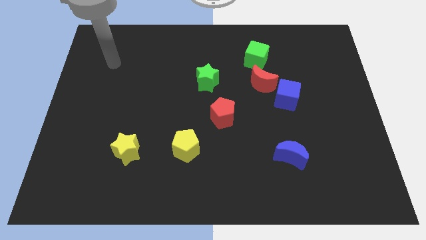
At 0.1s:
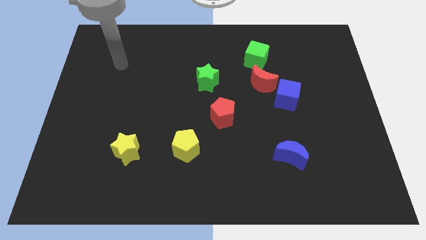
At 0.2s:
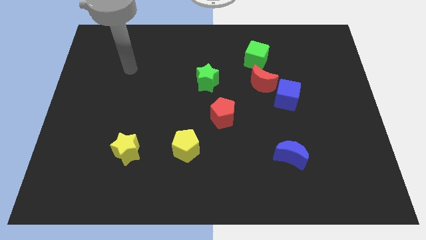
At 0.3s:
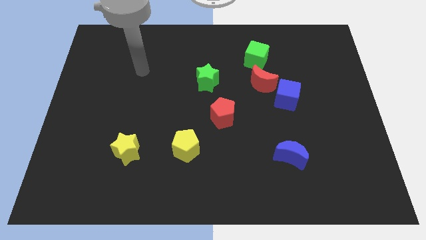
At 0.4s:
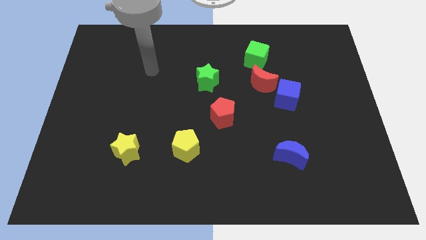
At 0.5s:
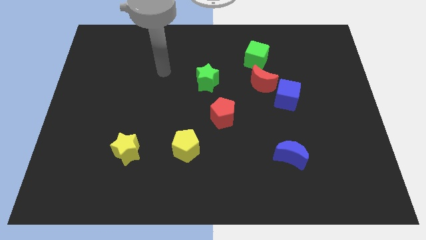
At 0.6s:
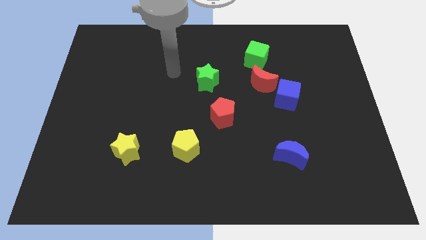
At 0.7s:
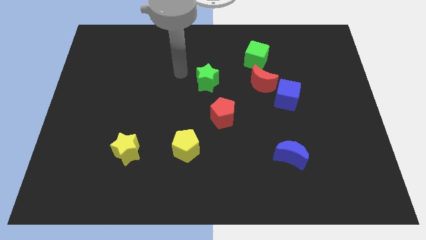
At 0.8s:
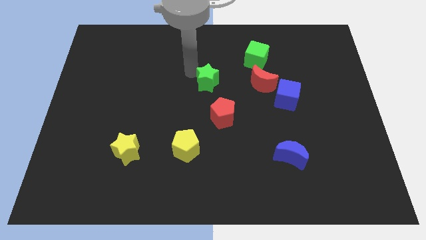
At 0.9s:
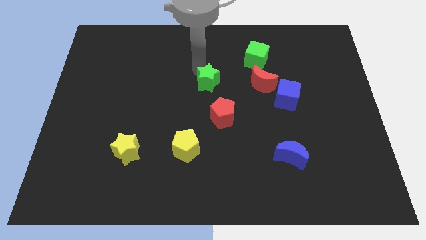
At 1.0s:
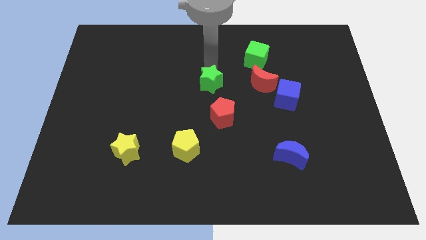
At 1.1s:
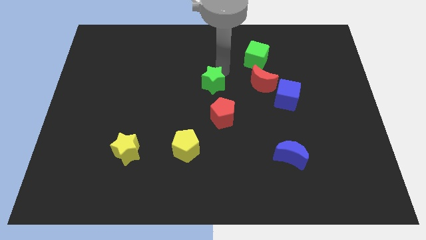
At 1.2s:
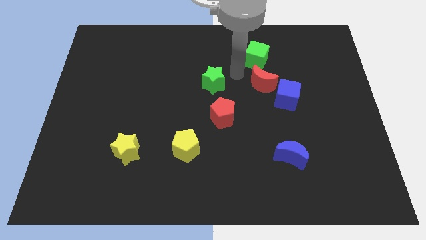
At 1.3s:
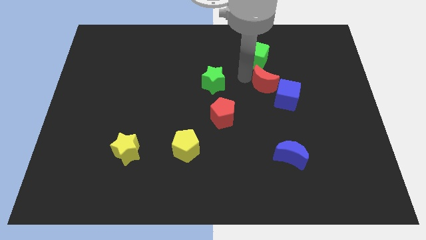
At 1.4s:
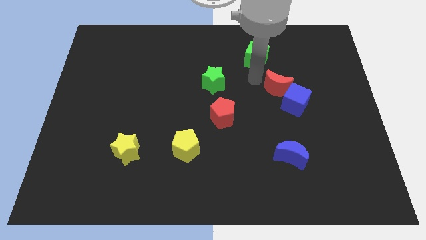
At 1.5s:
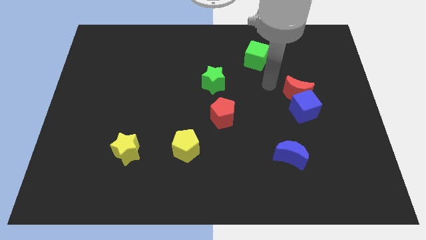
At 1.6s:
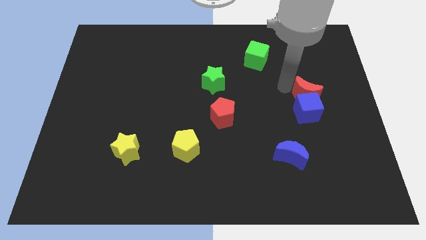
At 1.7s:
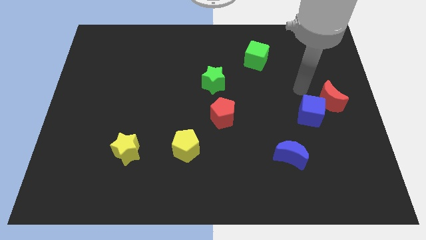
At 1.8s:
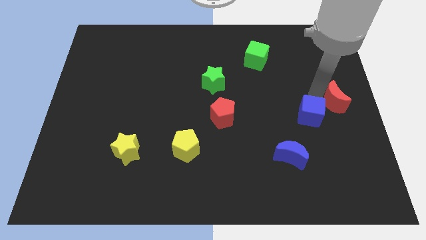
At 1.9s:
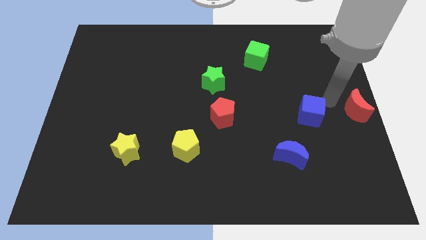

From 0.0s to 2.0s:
pull the blue cube apart from the red moon

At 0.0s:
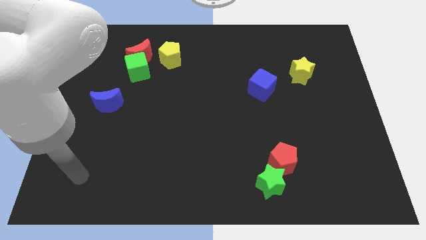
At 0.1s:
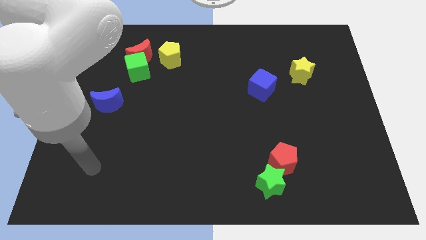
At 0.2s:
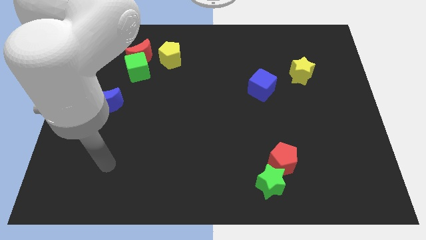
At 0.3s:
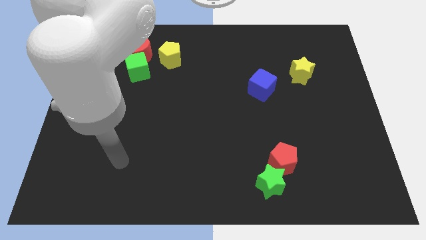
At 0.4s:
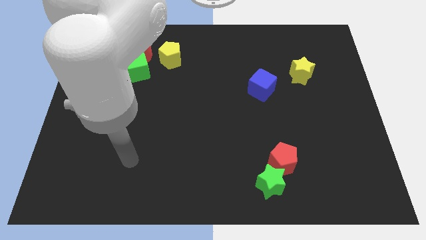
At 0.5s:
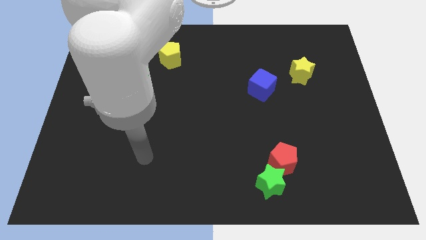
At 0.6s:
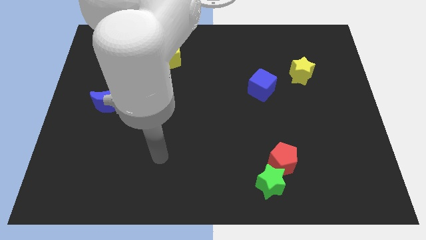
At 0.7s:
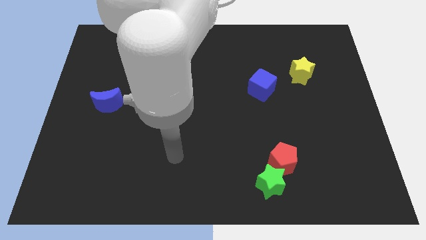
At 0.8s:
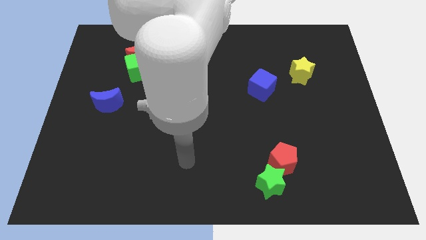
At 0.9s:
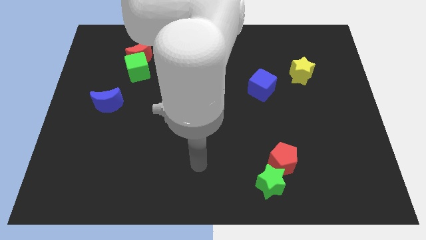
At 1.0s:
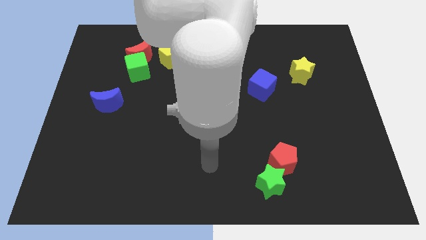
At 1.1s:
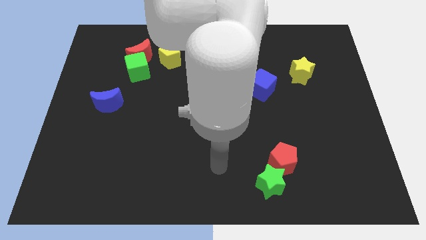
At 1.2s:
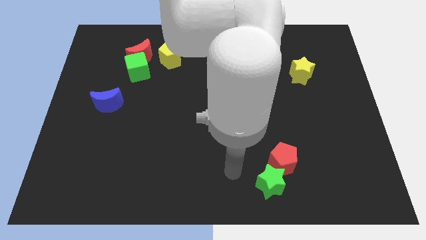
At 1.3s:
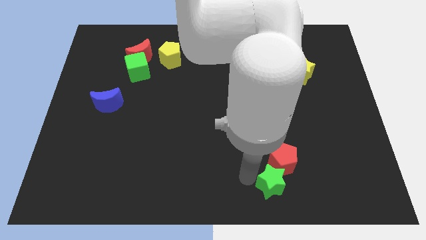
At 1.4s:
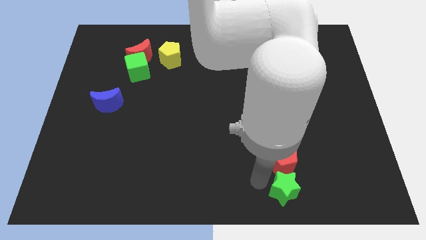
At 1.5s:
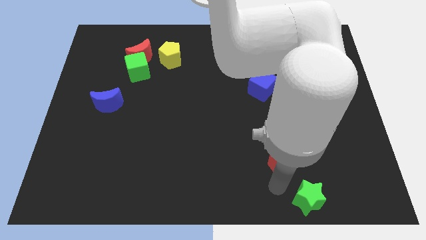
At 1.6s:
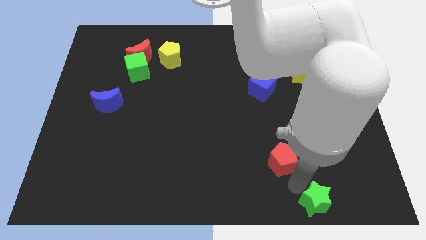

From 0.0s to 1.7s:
separate the red pentagon from the green star

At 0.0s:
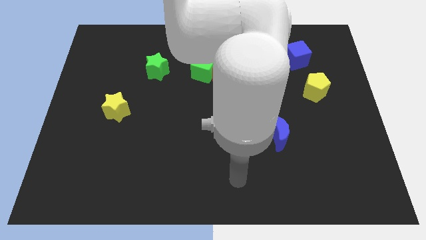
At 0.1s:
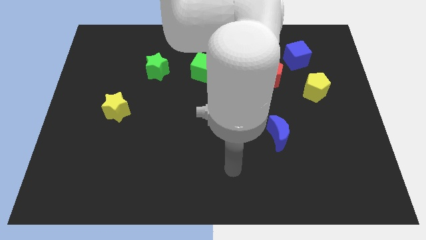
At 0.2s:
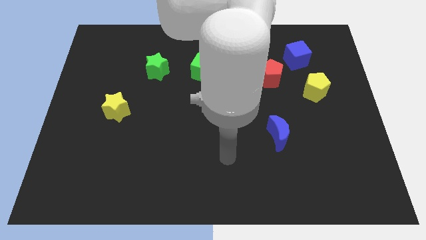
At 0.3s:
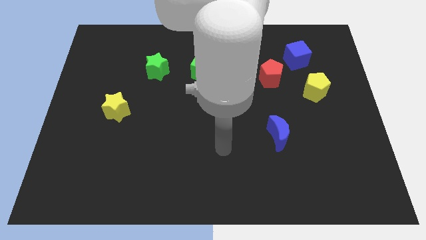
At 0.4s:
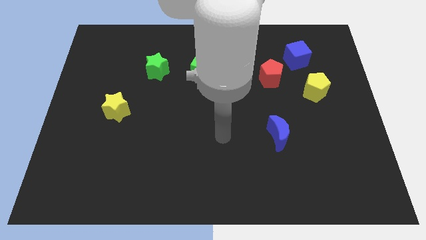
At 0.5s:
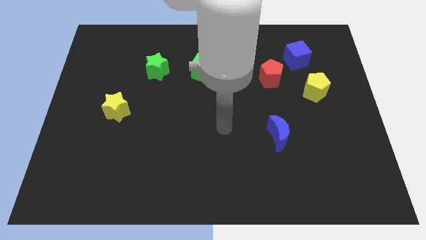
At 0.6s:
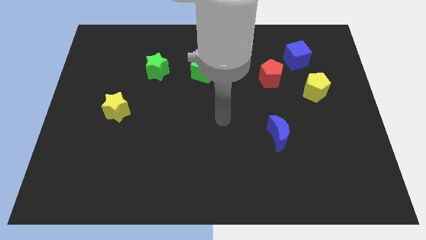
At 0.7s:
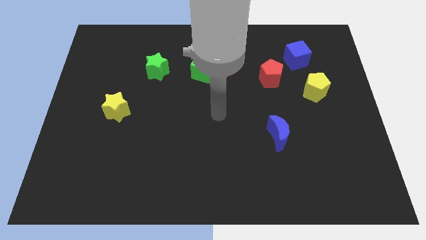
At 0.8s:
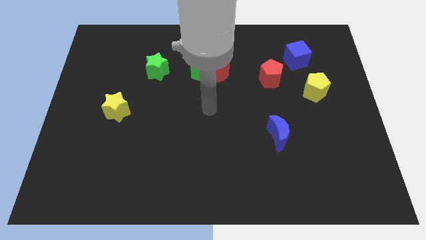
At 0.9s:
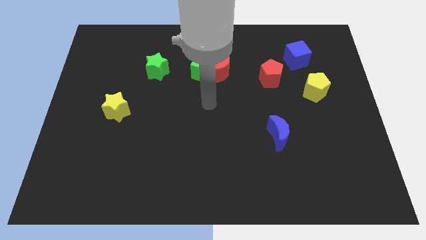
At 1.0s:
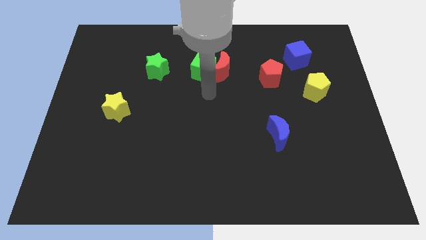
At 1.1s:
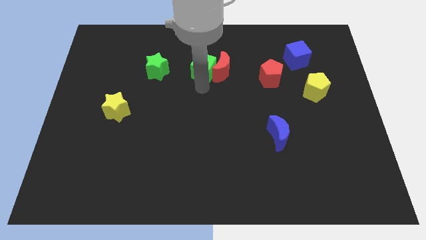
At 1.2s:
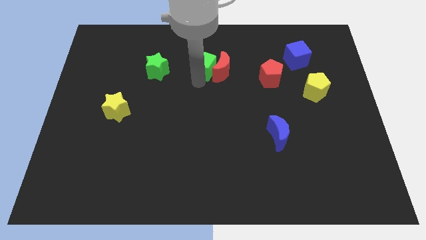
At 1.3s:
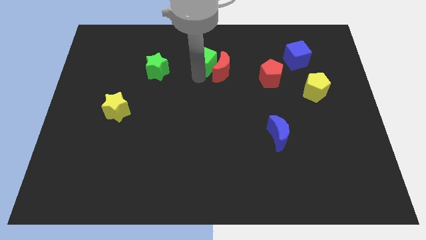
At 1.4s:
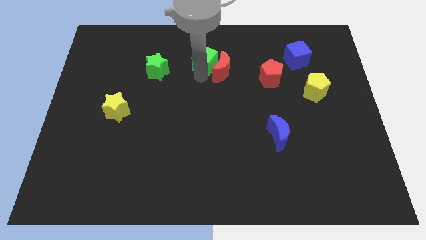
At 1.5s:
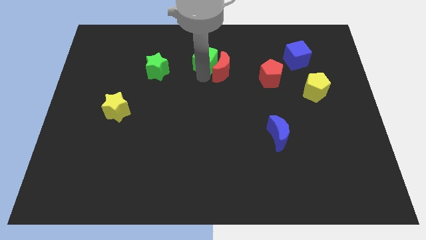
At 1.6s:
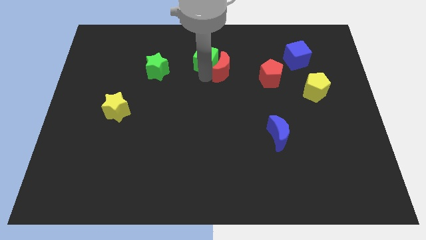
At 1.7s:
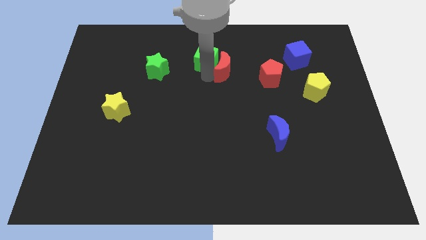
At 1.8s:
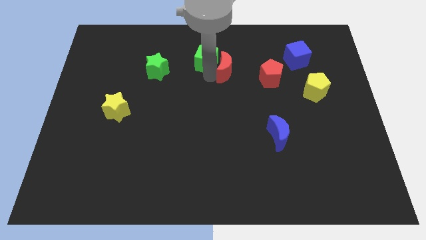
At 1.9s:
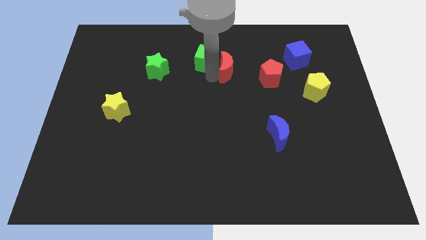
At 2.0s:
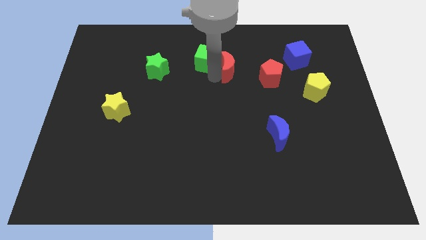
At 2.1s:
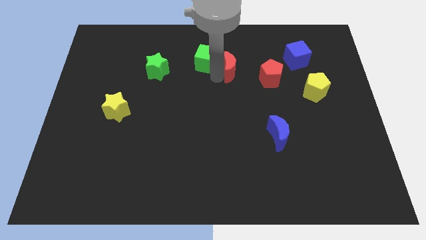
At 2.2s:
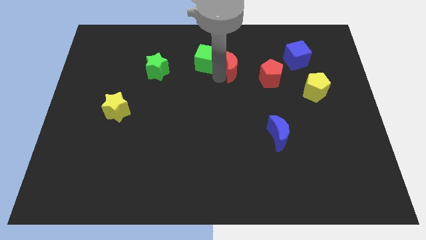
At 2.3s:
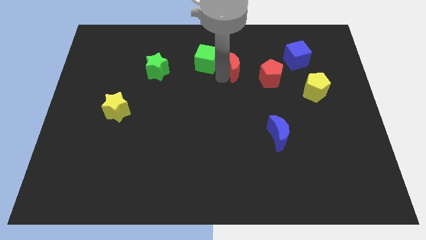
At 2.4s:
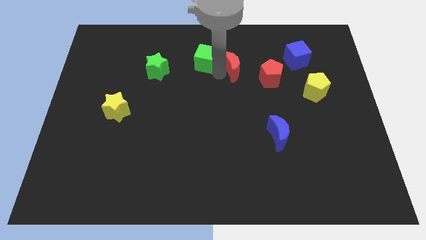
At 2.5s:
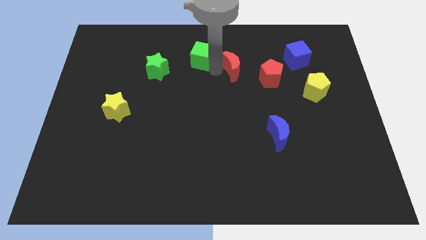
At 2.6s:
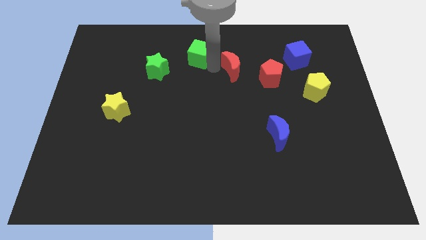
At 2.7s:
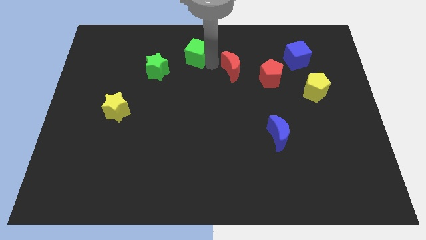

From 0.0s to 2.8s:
move the red moon away from the green cube

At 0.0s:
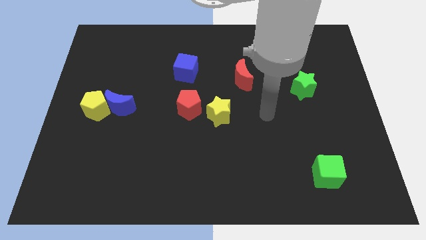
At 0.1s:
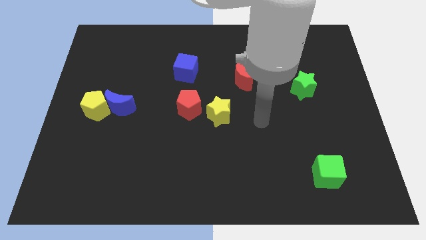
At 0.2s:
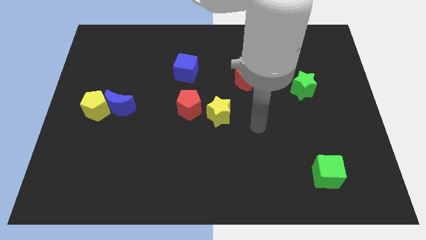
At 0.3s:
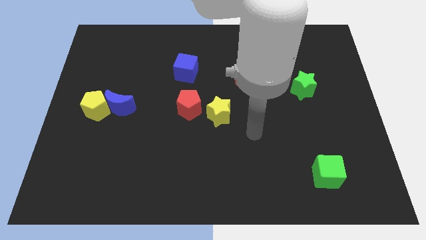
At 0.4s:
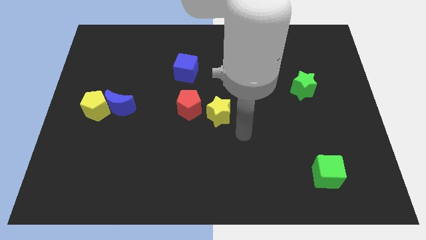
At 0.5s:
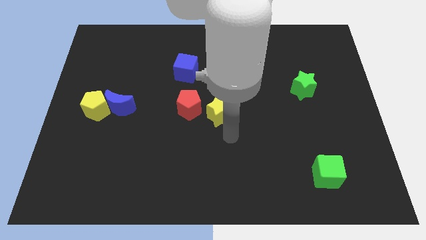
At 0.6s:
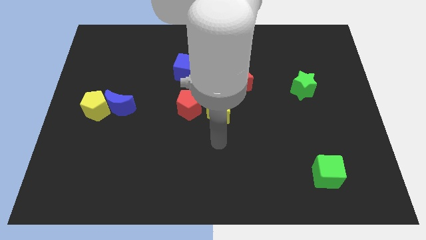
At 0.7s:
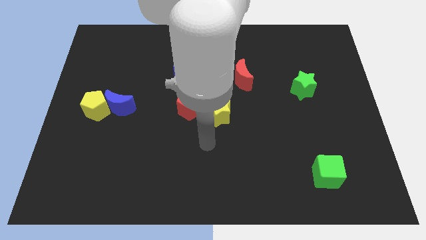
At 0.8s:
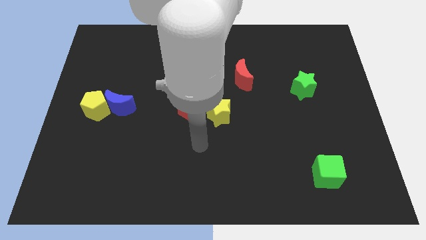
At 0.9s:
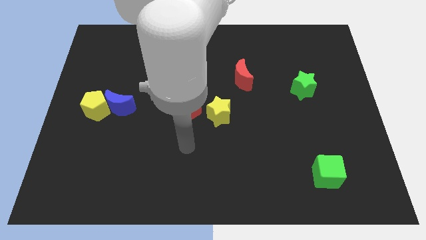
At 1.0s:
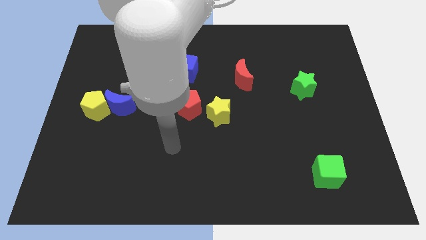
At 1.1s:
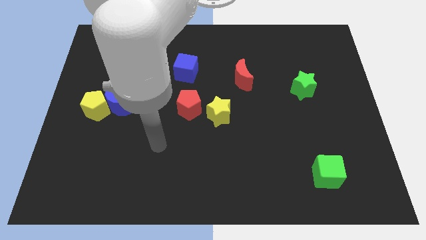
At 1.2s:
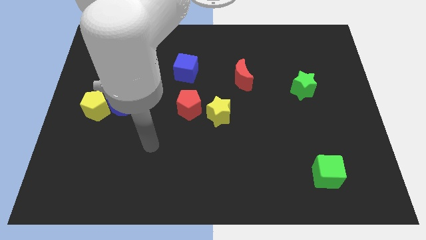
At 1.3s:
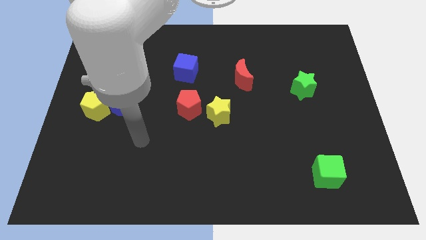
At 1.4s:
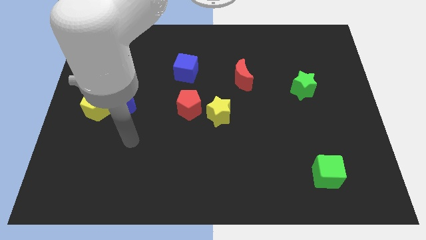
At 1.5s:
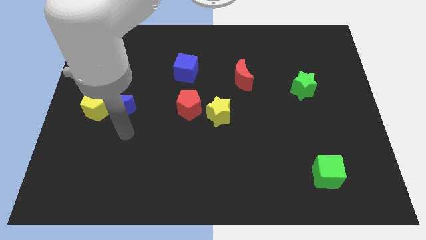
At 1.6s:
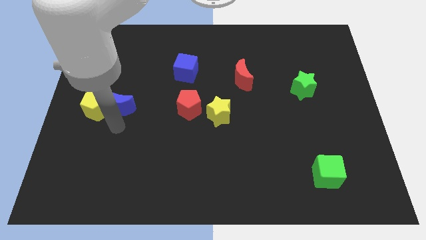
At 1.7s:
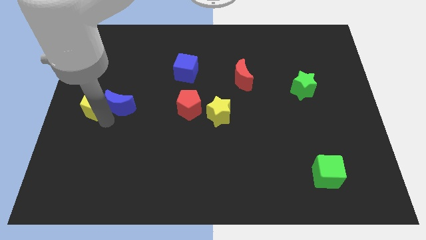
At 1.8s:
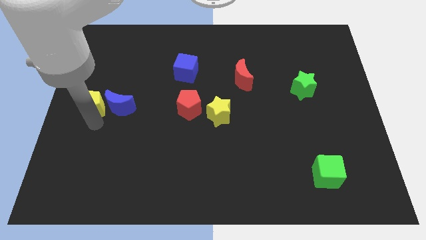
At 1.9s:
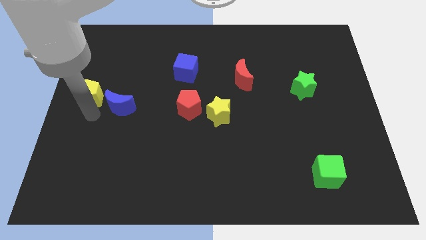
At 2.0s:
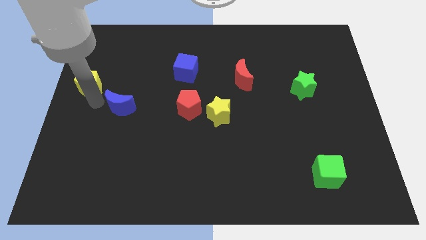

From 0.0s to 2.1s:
separate the blue moon from the yellow pentagon

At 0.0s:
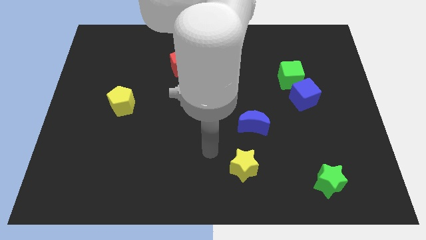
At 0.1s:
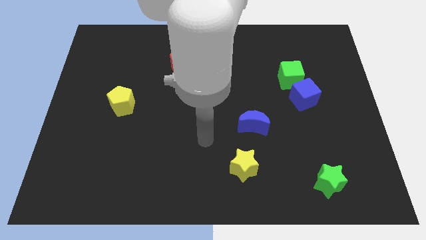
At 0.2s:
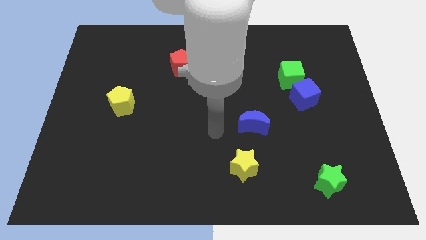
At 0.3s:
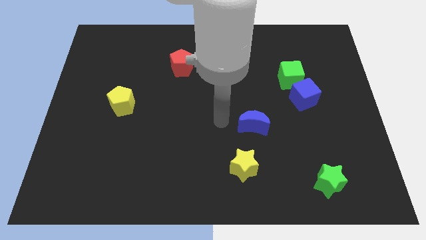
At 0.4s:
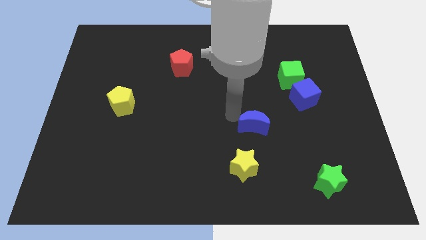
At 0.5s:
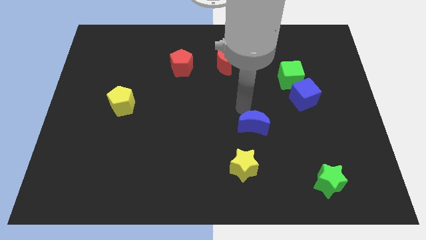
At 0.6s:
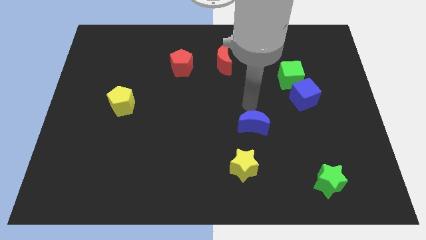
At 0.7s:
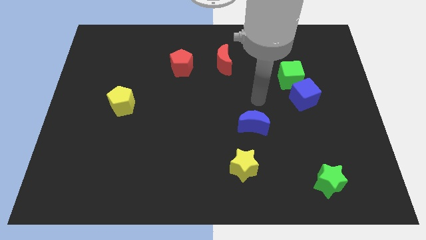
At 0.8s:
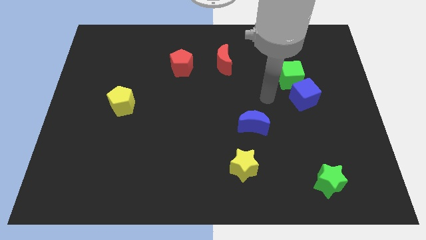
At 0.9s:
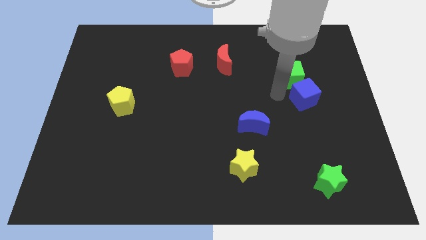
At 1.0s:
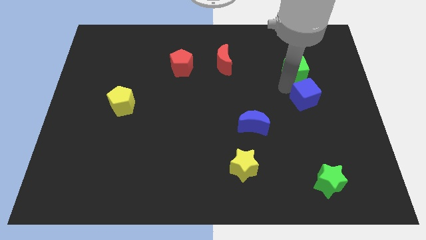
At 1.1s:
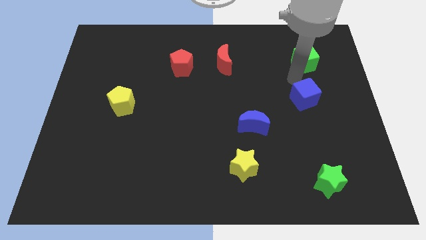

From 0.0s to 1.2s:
move the blue cube away from the green cube
